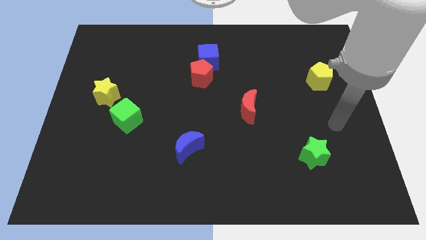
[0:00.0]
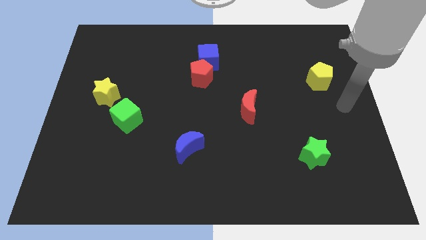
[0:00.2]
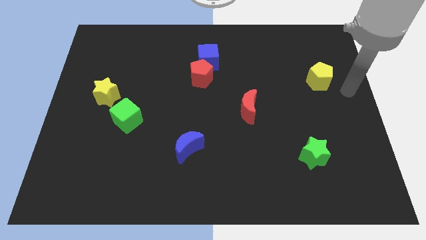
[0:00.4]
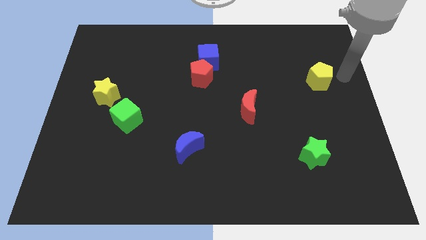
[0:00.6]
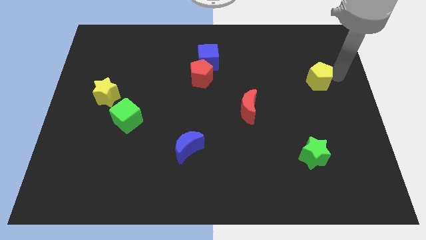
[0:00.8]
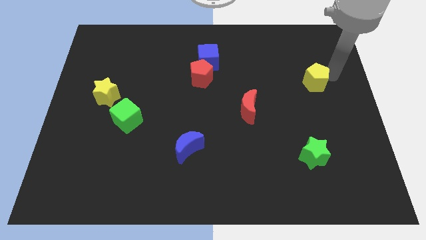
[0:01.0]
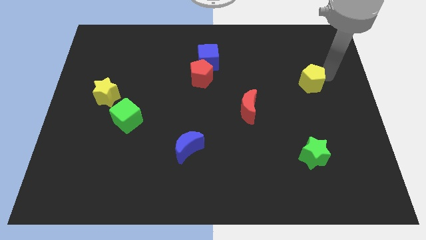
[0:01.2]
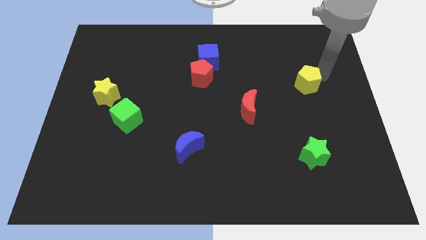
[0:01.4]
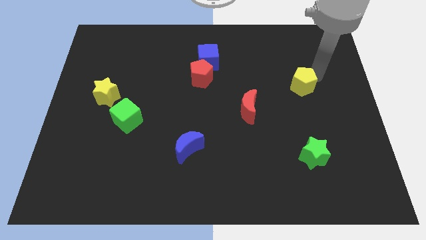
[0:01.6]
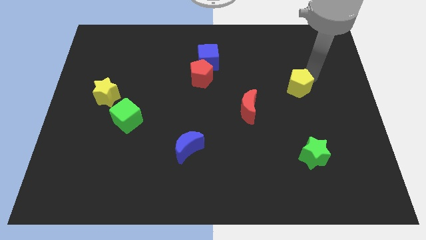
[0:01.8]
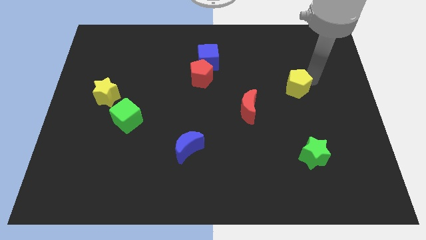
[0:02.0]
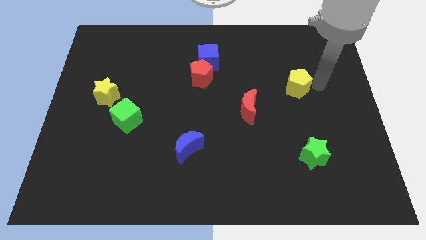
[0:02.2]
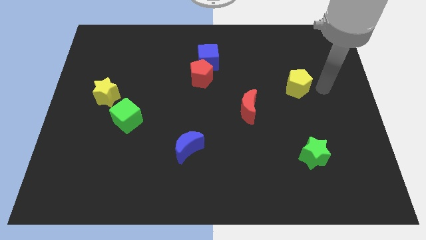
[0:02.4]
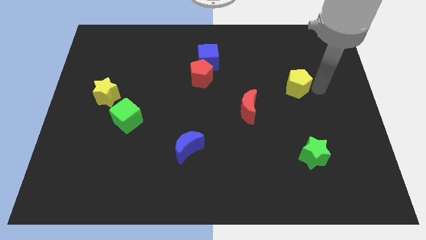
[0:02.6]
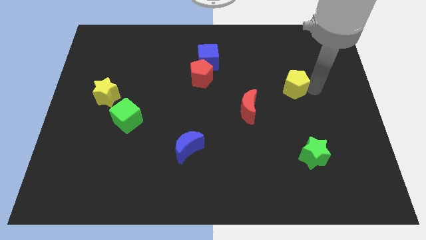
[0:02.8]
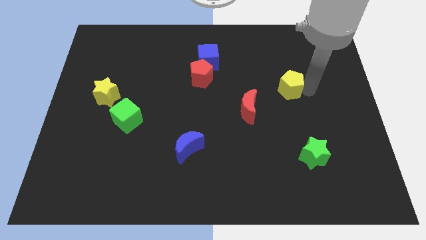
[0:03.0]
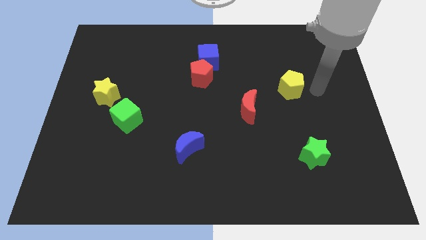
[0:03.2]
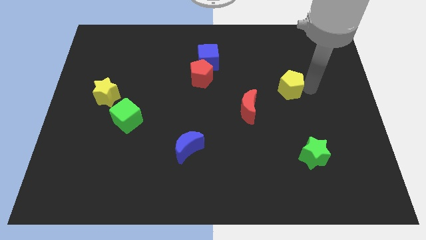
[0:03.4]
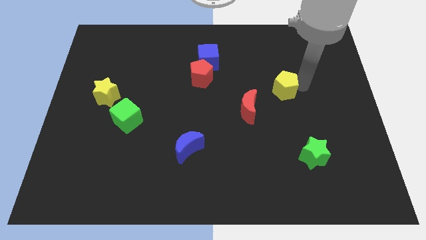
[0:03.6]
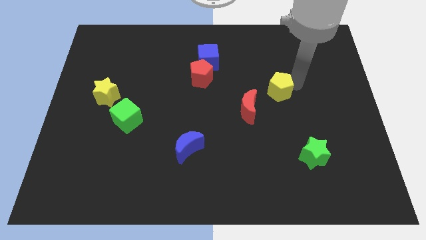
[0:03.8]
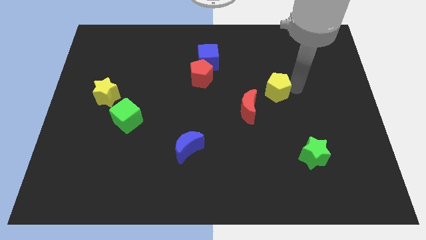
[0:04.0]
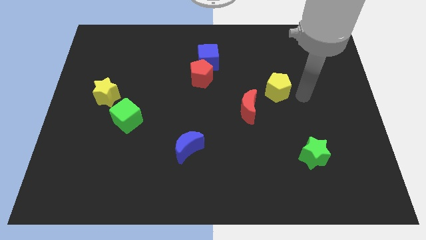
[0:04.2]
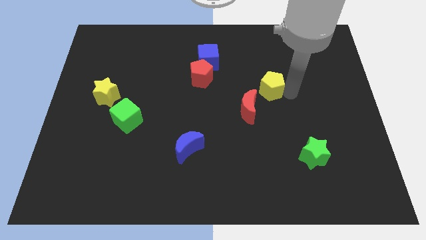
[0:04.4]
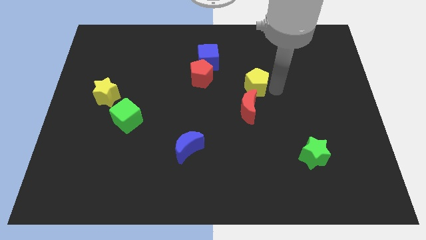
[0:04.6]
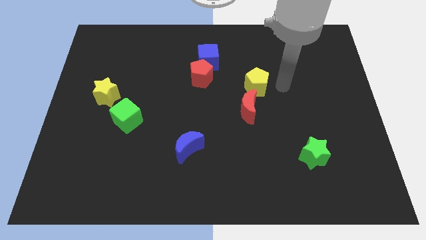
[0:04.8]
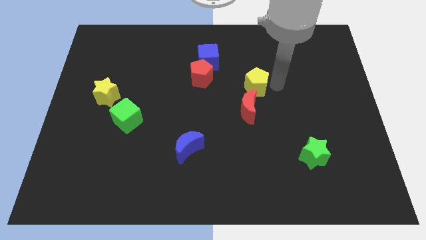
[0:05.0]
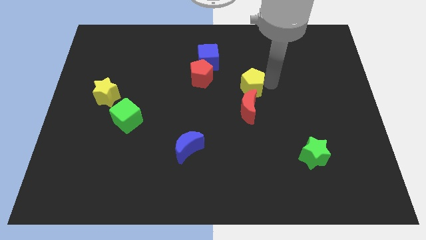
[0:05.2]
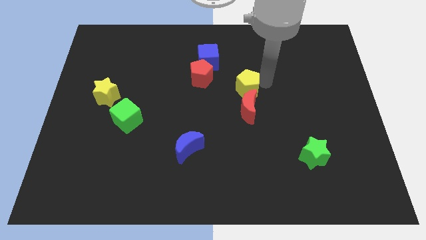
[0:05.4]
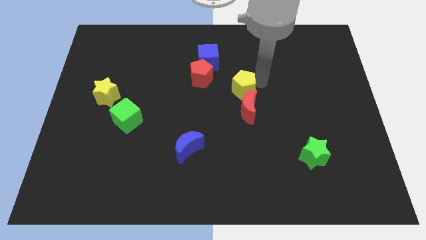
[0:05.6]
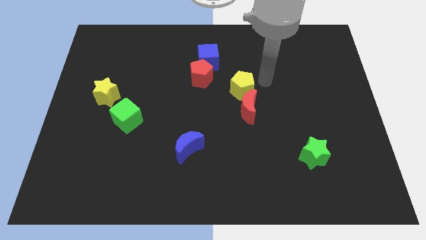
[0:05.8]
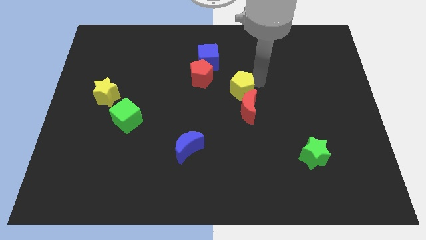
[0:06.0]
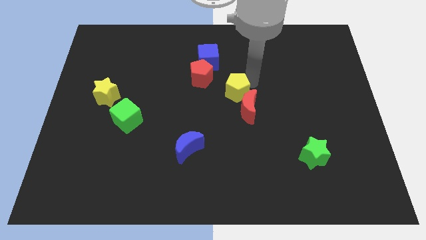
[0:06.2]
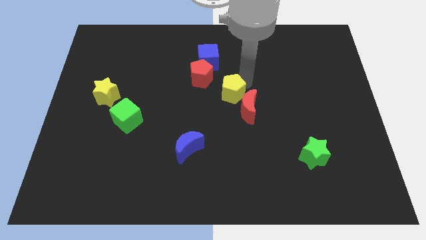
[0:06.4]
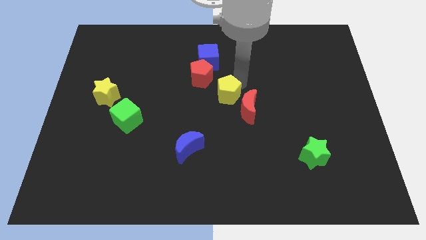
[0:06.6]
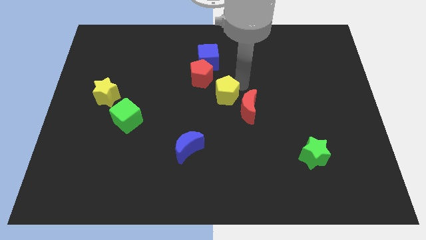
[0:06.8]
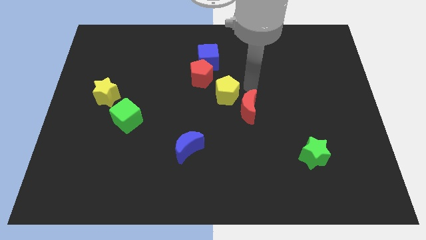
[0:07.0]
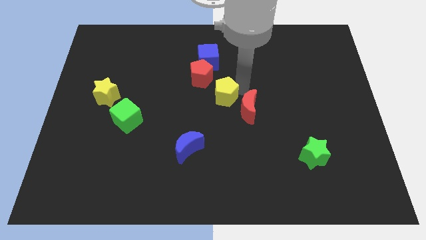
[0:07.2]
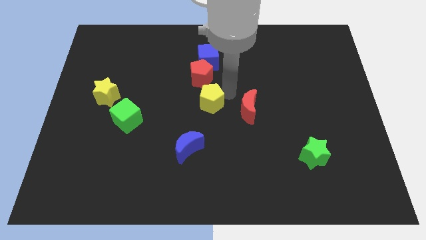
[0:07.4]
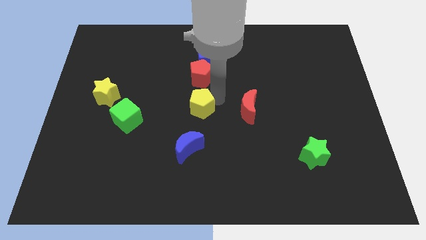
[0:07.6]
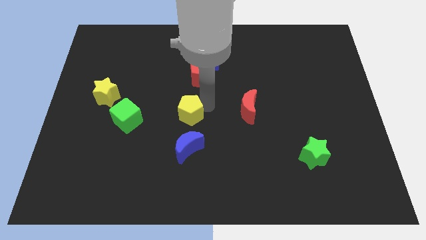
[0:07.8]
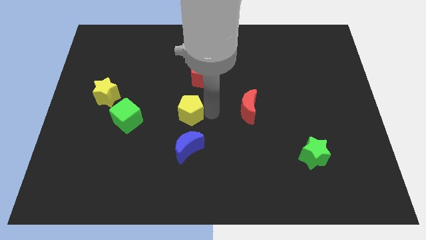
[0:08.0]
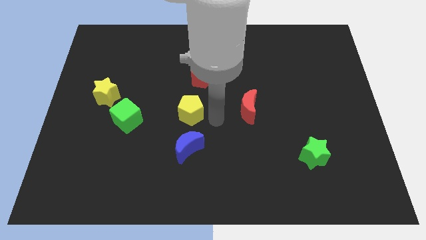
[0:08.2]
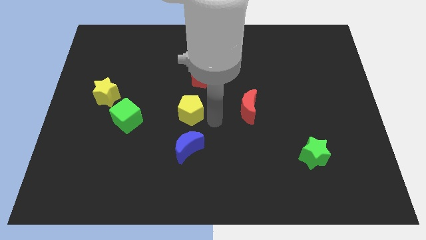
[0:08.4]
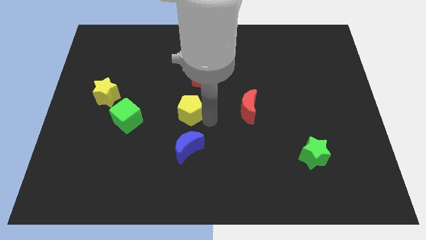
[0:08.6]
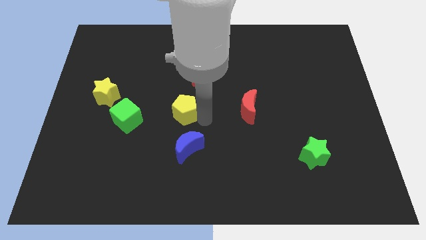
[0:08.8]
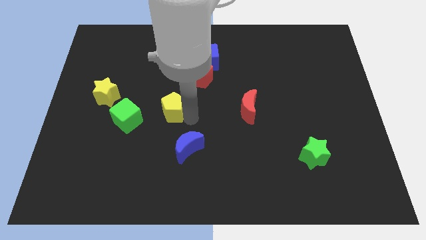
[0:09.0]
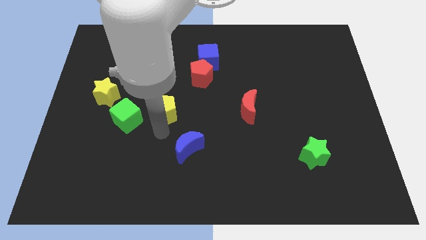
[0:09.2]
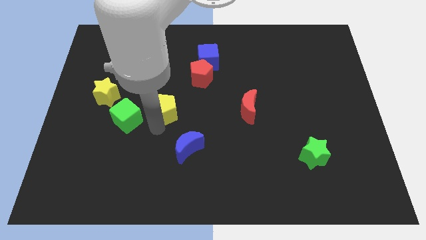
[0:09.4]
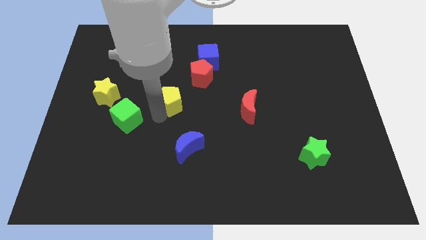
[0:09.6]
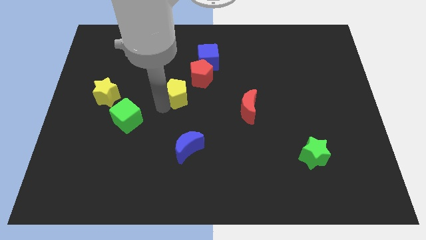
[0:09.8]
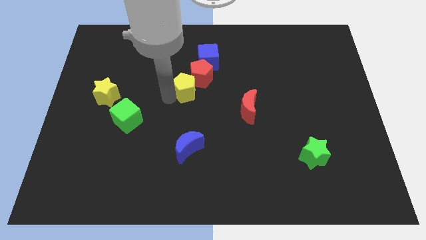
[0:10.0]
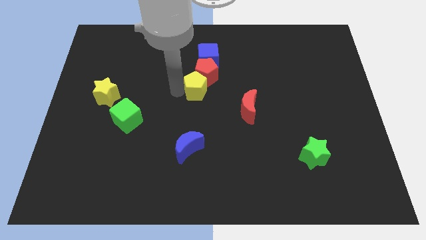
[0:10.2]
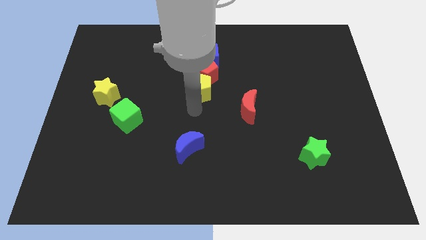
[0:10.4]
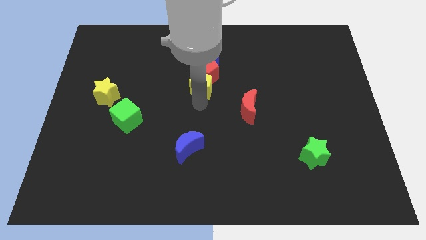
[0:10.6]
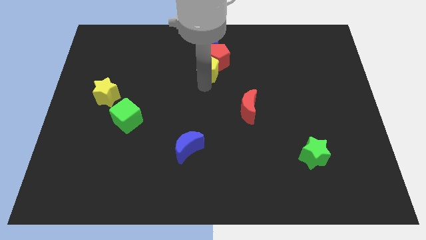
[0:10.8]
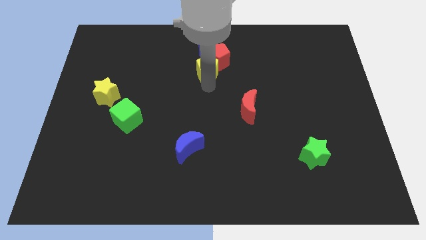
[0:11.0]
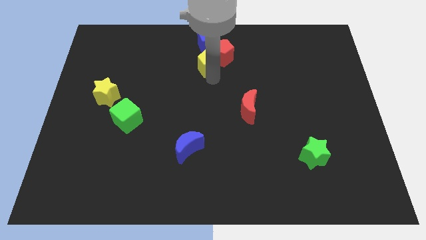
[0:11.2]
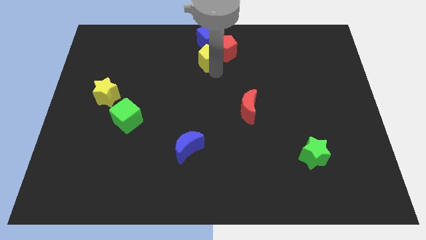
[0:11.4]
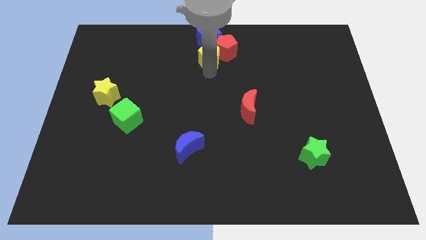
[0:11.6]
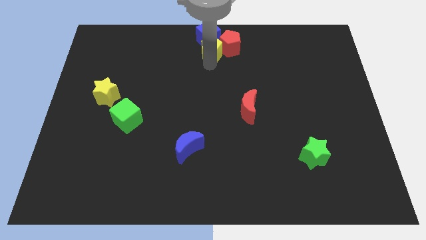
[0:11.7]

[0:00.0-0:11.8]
put the yellow pentagon to the towards your base
